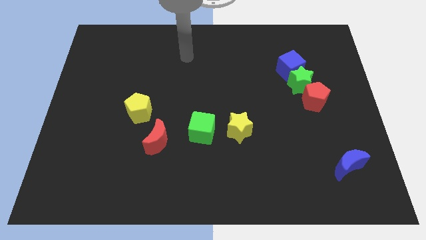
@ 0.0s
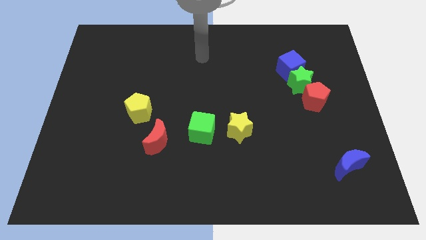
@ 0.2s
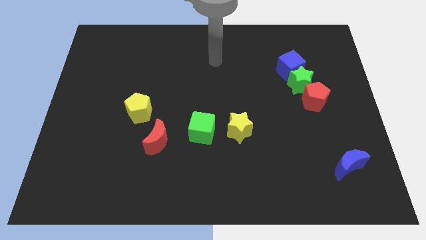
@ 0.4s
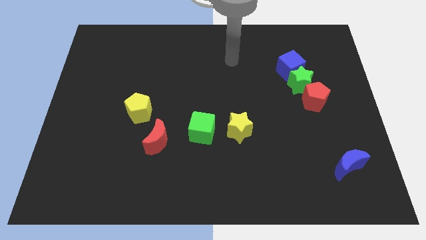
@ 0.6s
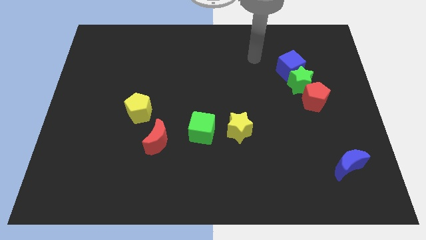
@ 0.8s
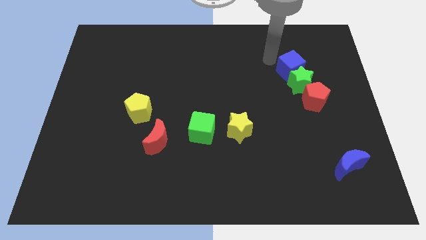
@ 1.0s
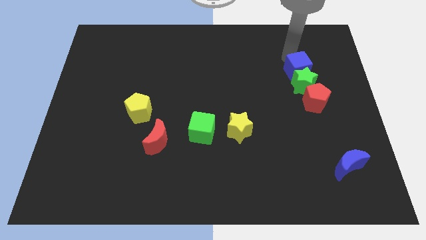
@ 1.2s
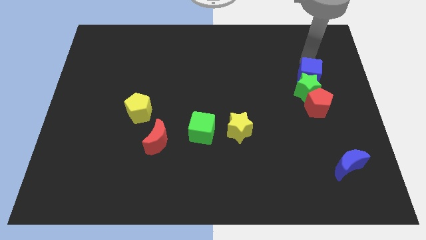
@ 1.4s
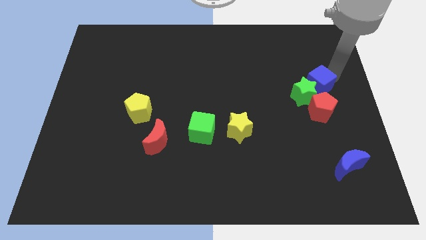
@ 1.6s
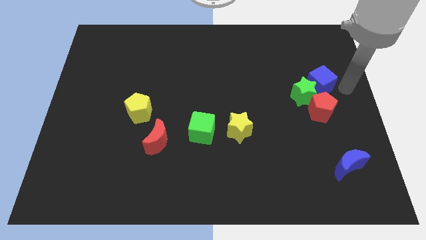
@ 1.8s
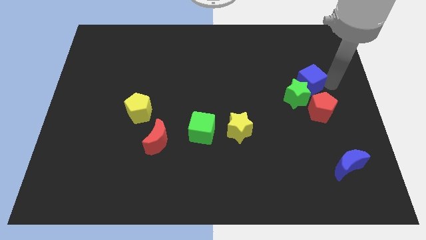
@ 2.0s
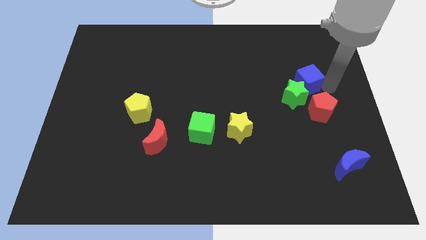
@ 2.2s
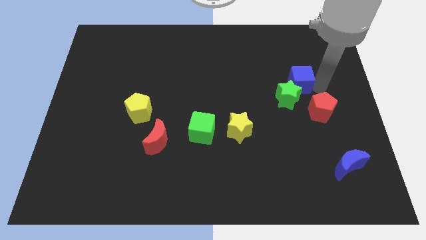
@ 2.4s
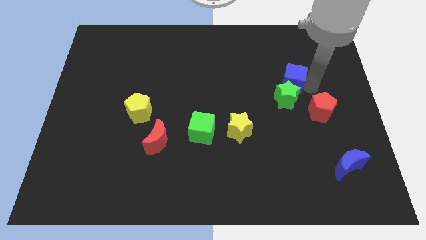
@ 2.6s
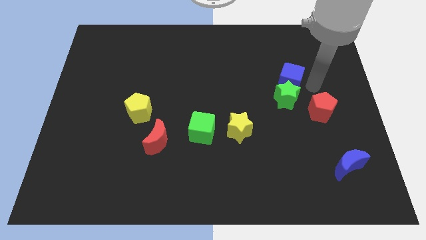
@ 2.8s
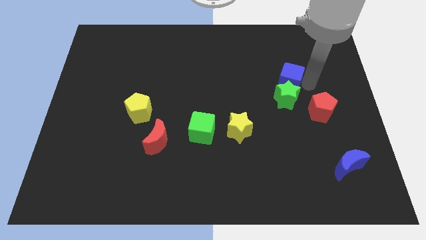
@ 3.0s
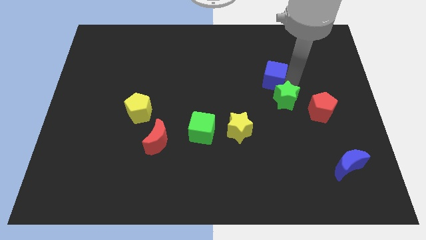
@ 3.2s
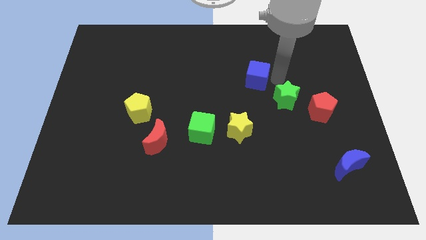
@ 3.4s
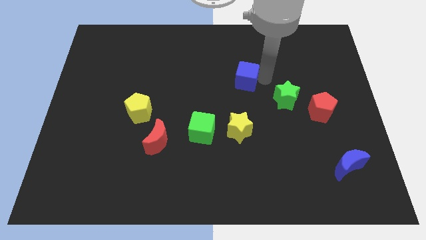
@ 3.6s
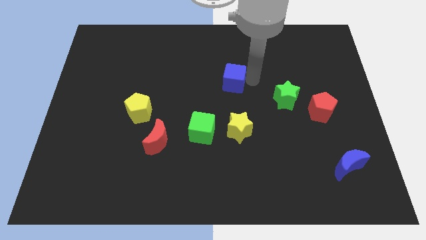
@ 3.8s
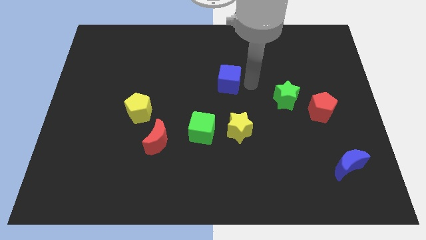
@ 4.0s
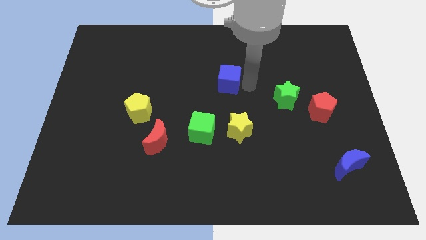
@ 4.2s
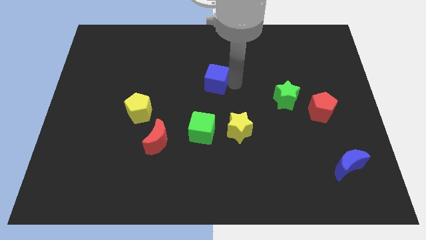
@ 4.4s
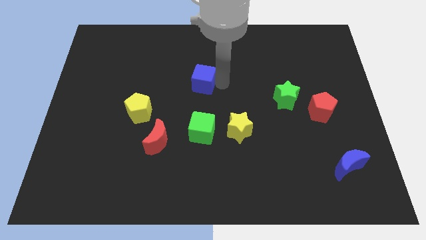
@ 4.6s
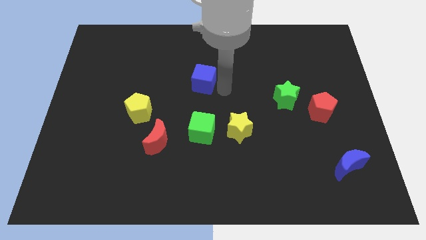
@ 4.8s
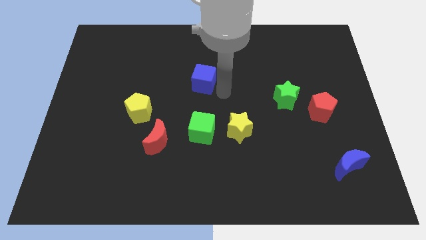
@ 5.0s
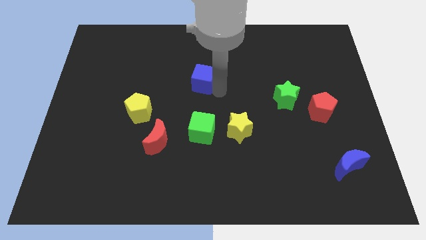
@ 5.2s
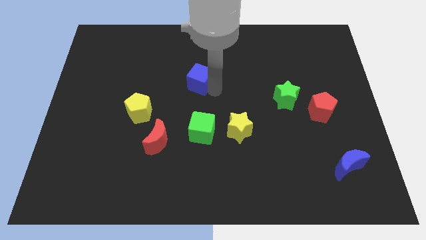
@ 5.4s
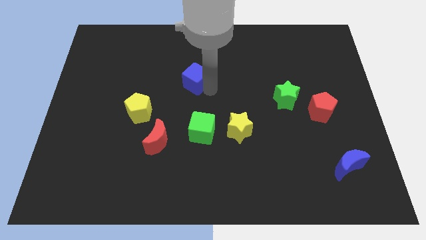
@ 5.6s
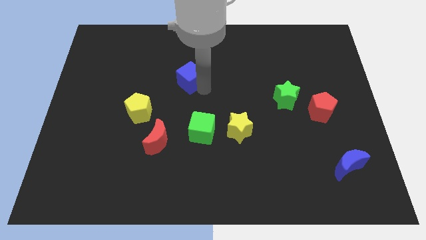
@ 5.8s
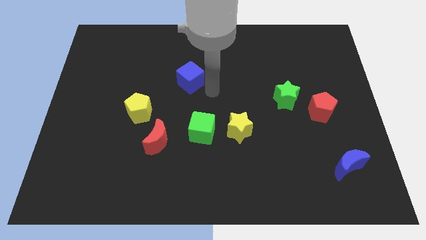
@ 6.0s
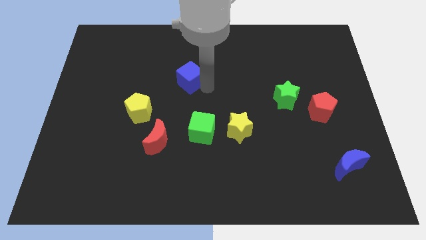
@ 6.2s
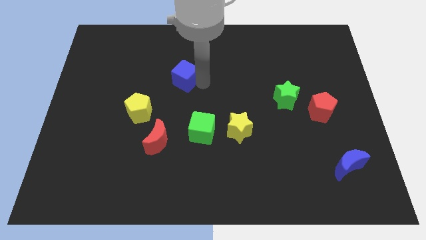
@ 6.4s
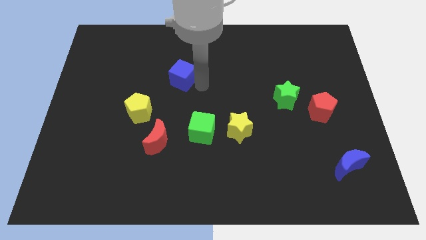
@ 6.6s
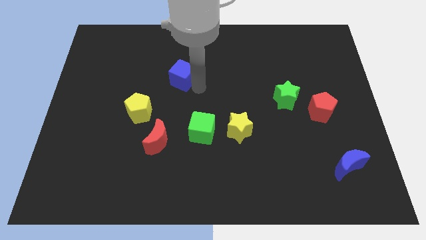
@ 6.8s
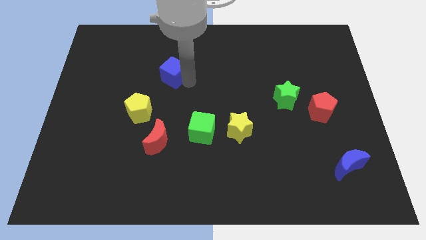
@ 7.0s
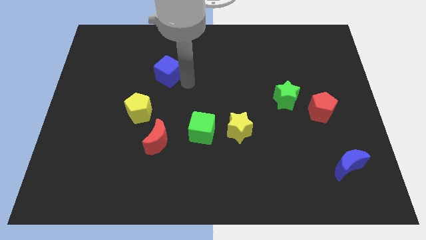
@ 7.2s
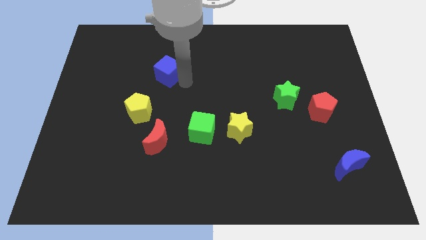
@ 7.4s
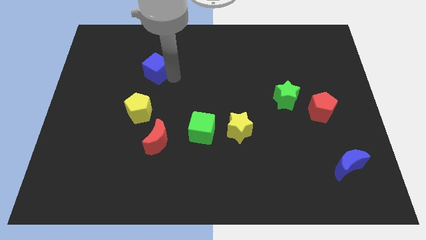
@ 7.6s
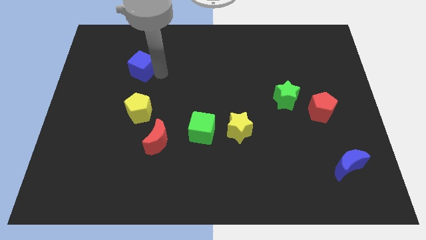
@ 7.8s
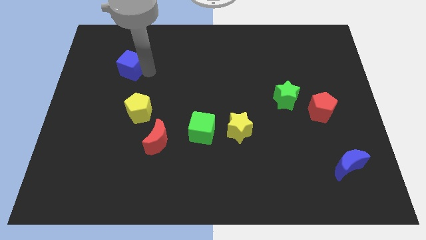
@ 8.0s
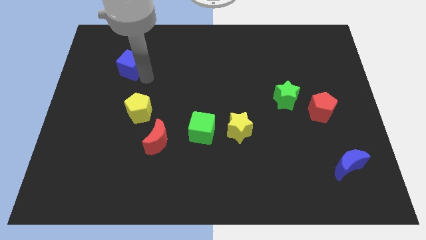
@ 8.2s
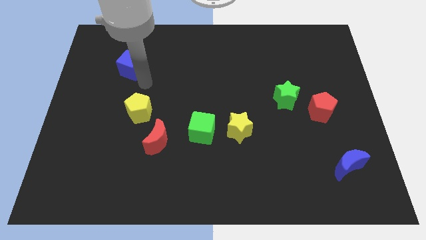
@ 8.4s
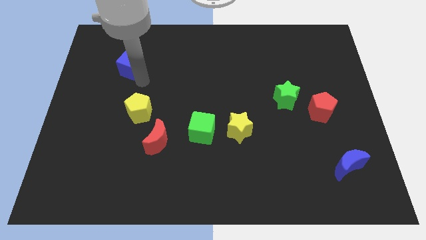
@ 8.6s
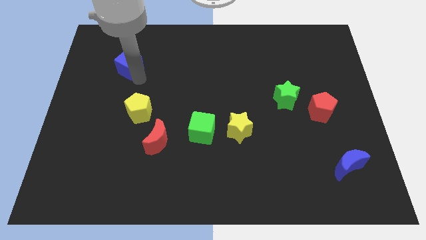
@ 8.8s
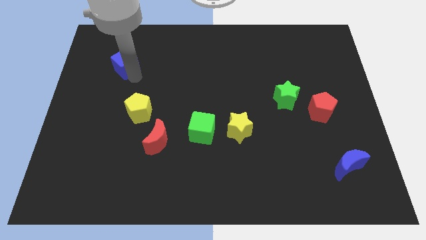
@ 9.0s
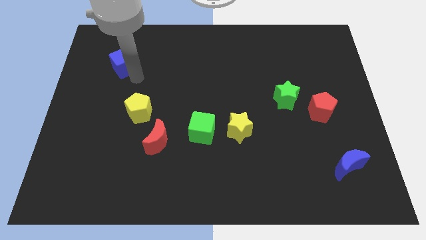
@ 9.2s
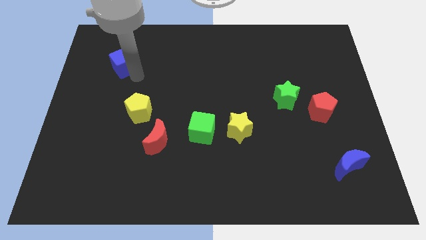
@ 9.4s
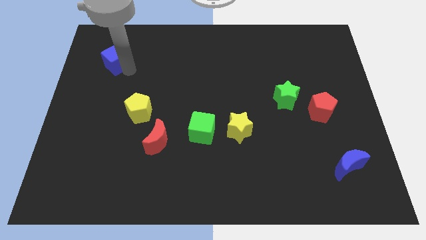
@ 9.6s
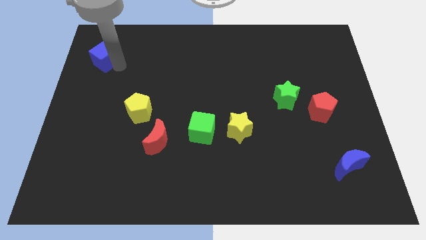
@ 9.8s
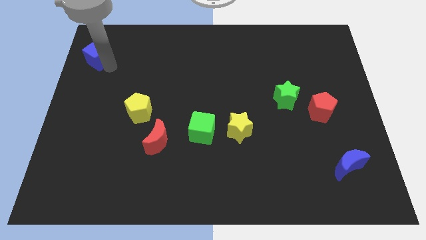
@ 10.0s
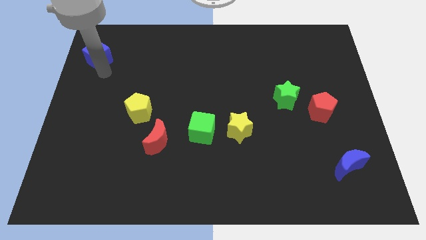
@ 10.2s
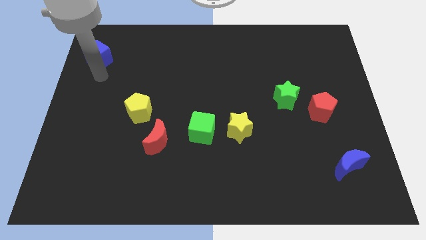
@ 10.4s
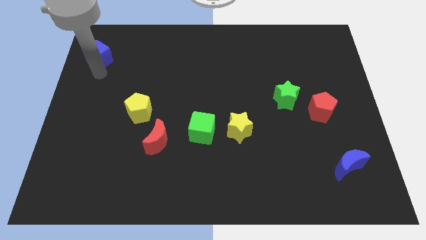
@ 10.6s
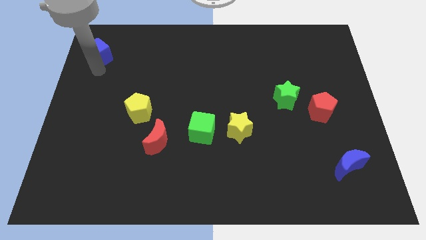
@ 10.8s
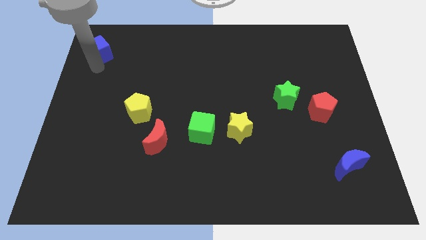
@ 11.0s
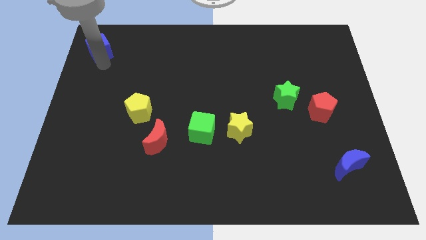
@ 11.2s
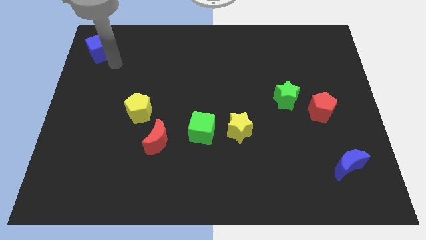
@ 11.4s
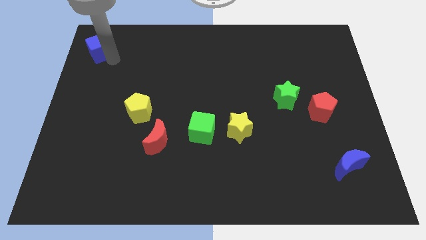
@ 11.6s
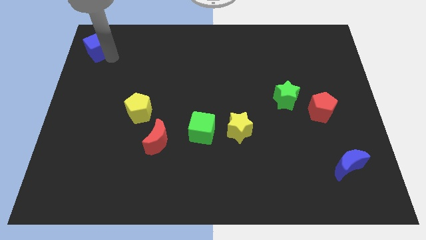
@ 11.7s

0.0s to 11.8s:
slide the blue cube to the upper left corner

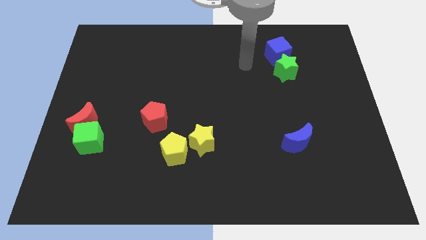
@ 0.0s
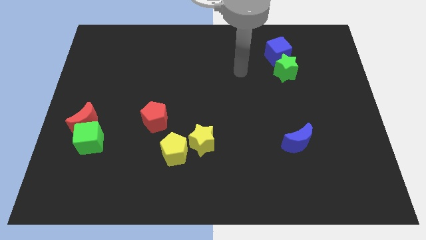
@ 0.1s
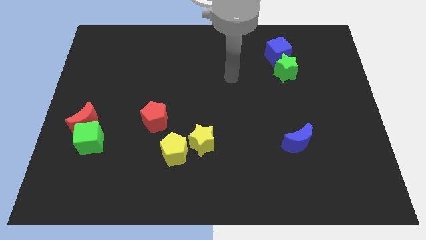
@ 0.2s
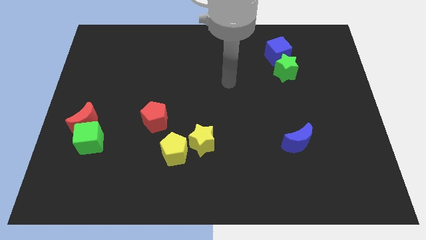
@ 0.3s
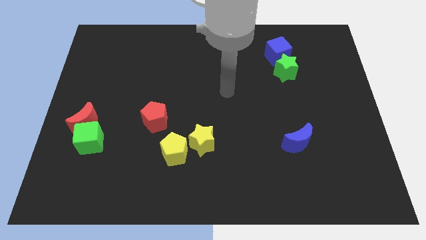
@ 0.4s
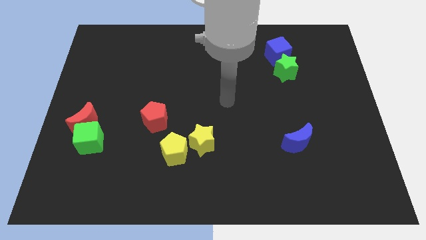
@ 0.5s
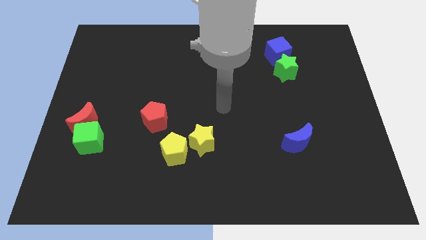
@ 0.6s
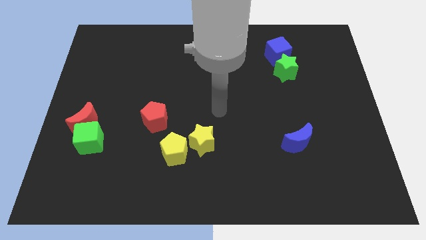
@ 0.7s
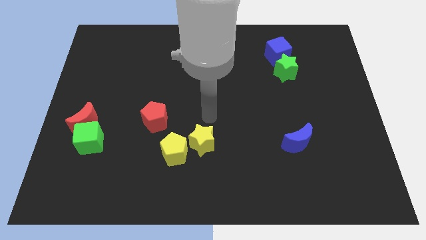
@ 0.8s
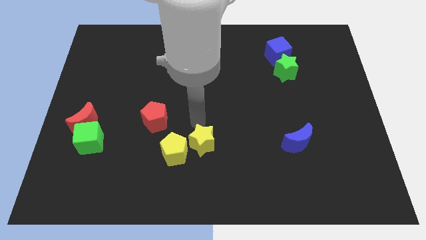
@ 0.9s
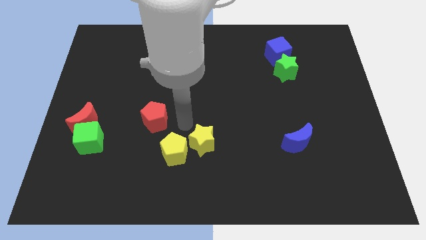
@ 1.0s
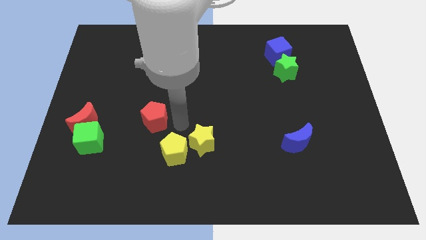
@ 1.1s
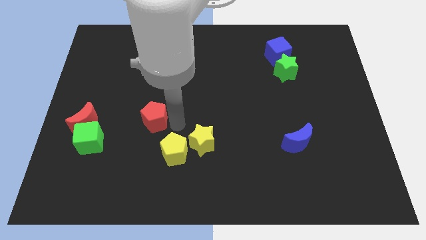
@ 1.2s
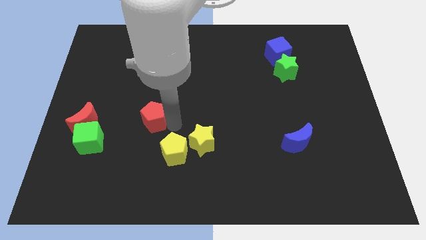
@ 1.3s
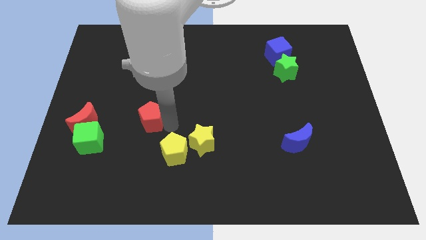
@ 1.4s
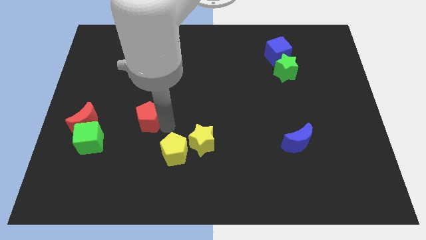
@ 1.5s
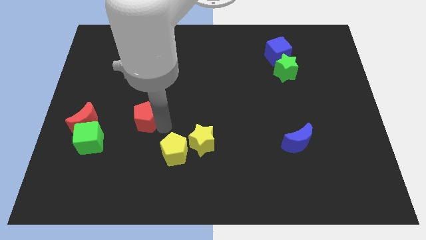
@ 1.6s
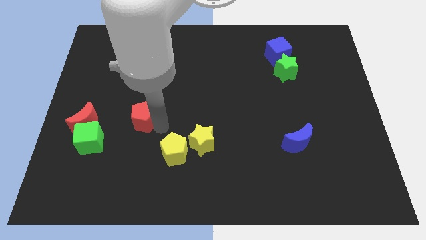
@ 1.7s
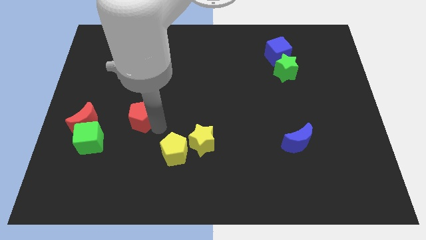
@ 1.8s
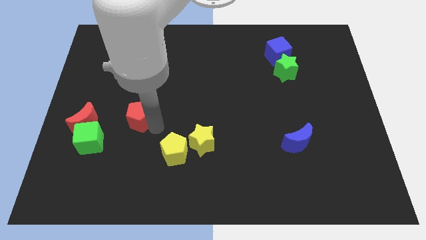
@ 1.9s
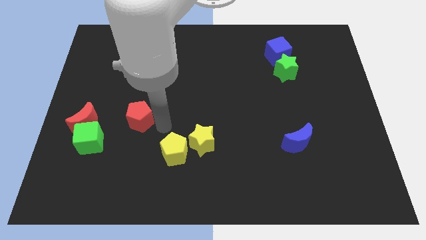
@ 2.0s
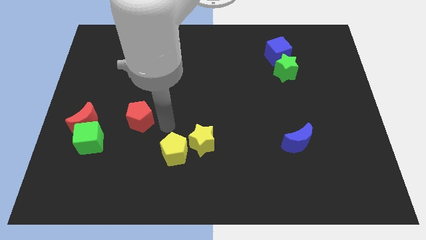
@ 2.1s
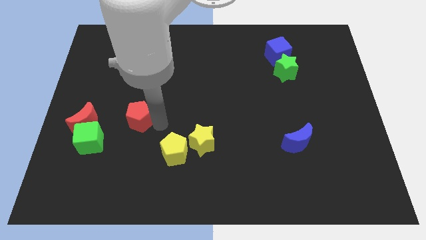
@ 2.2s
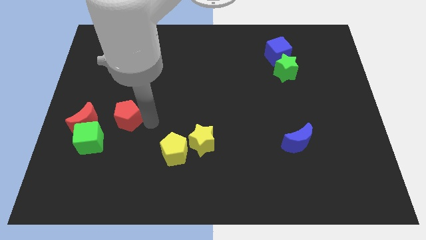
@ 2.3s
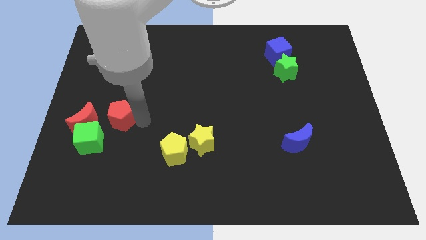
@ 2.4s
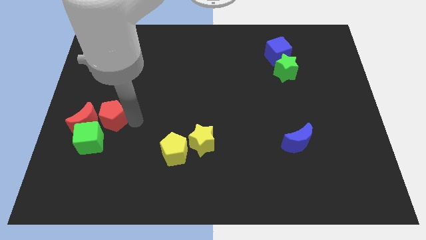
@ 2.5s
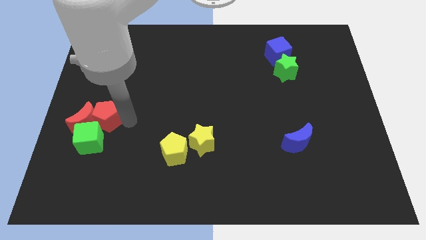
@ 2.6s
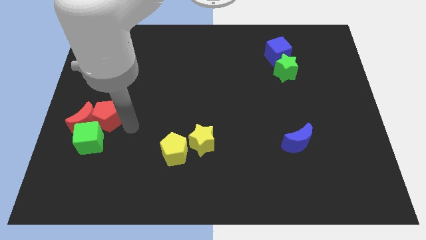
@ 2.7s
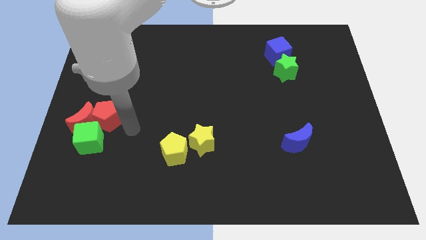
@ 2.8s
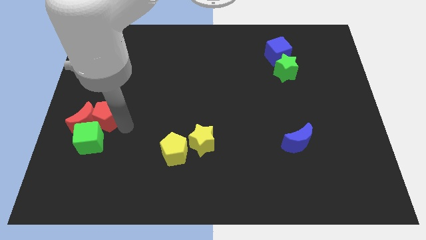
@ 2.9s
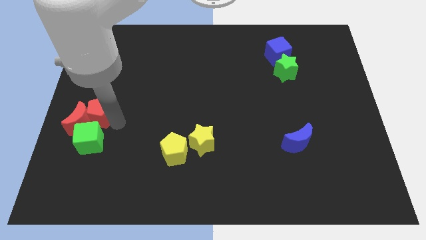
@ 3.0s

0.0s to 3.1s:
slide the red pentagon to the left side of the board
